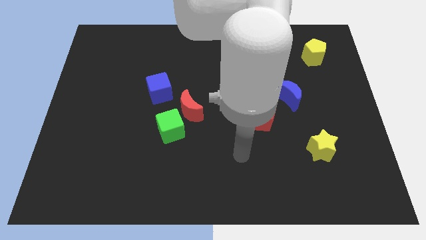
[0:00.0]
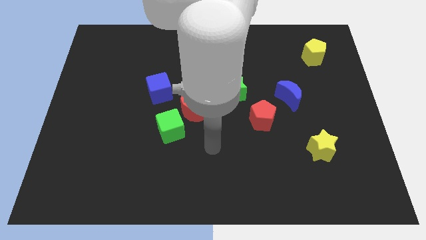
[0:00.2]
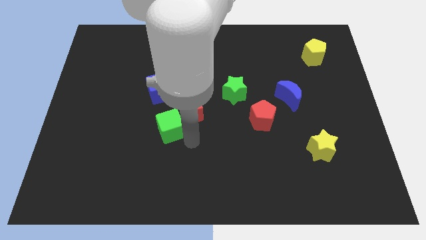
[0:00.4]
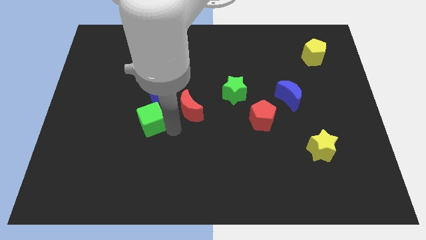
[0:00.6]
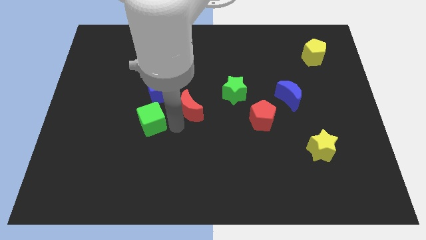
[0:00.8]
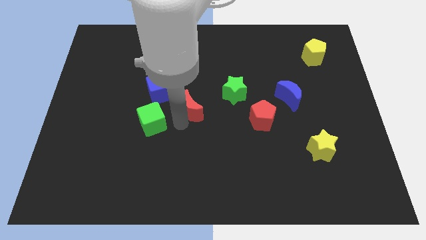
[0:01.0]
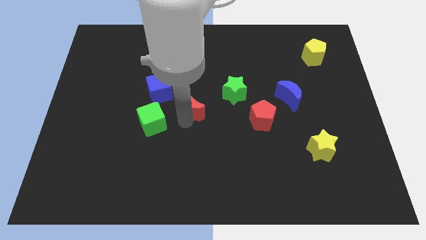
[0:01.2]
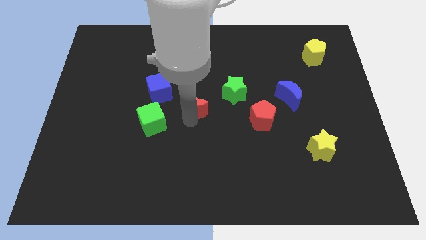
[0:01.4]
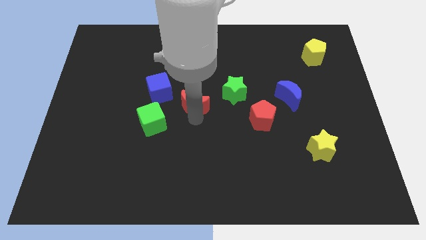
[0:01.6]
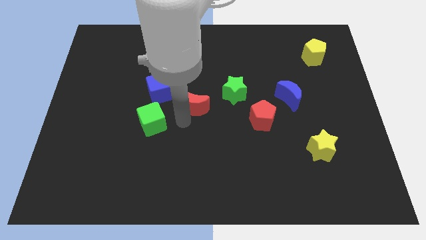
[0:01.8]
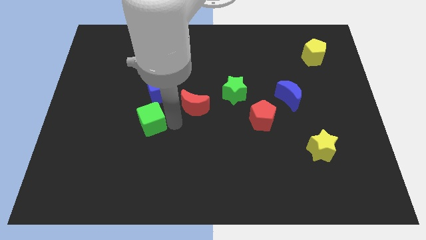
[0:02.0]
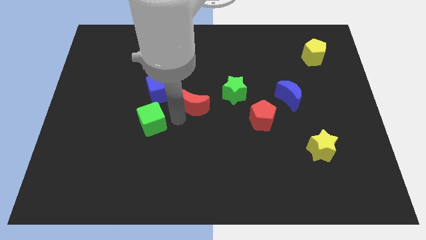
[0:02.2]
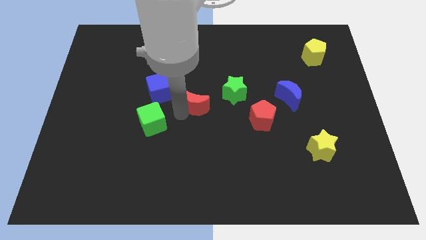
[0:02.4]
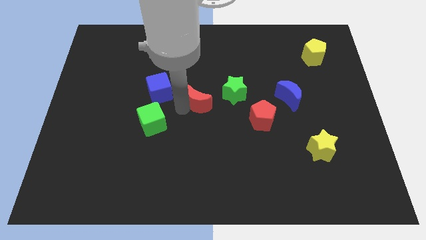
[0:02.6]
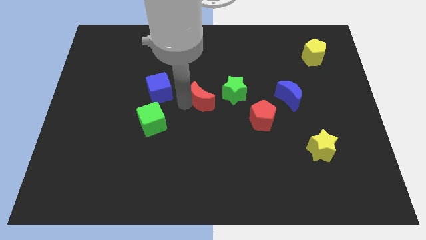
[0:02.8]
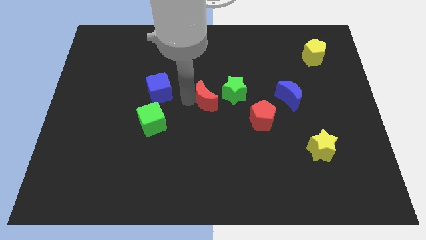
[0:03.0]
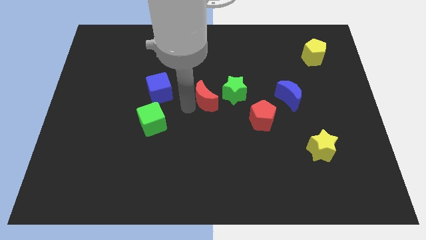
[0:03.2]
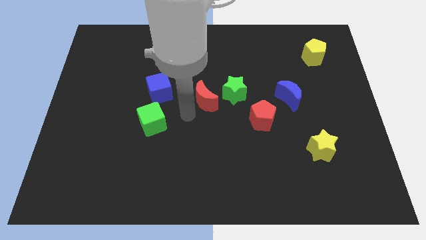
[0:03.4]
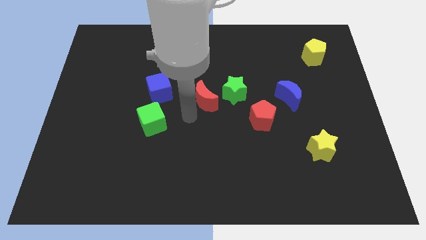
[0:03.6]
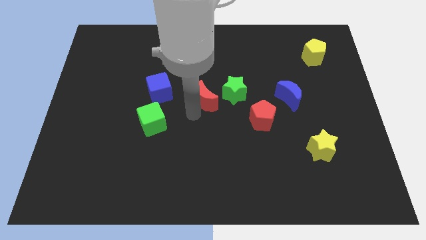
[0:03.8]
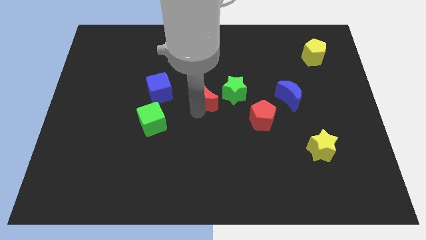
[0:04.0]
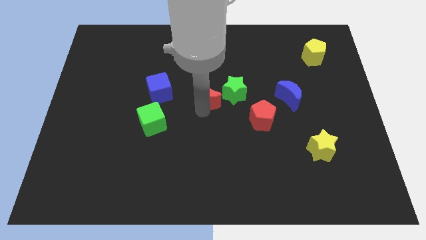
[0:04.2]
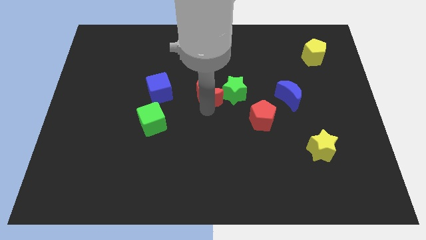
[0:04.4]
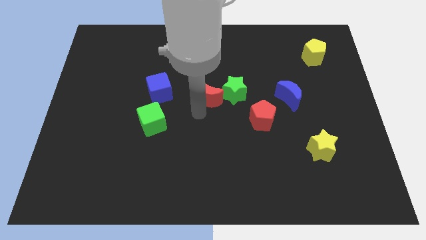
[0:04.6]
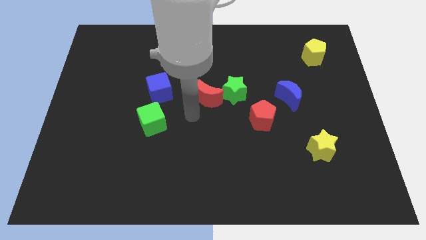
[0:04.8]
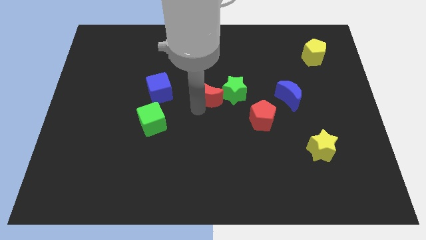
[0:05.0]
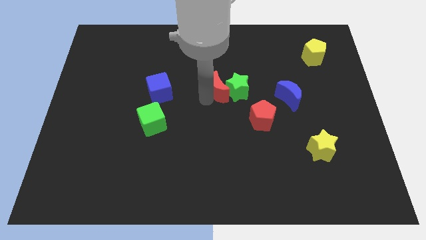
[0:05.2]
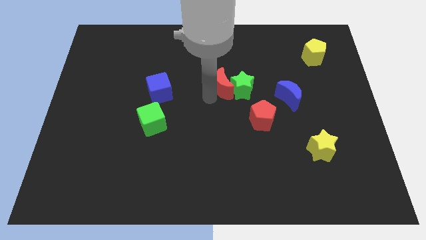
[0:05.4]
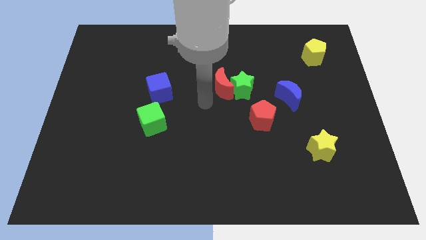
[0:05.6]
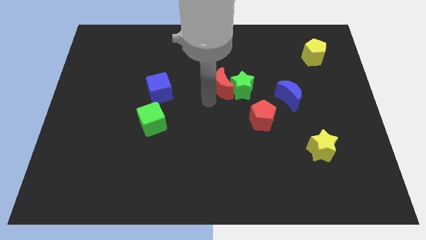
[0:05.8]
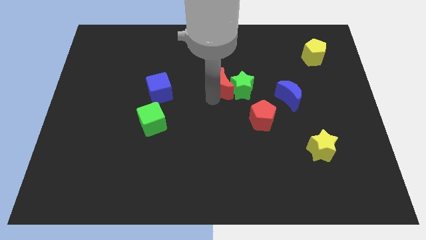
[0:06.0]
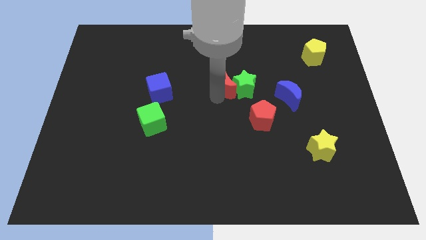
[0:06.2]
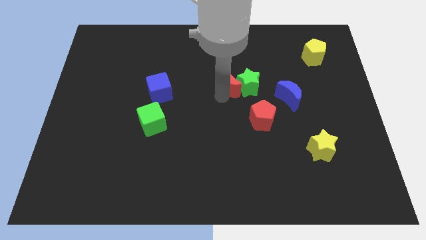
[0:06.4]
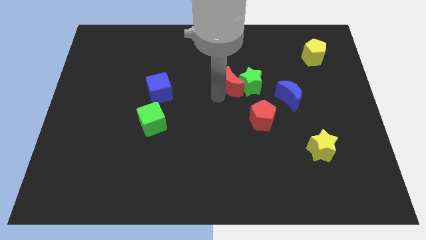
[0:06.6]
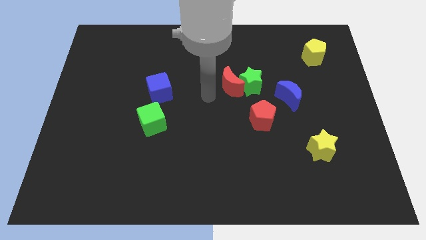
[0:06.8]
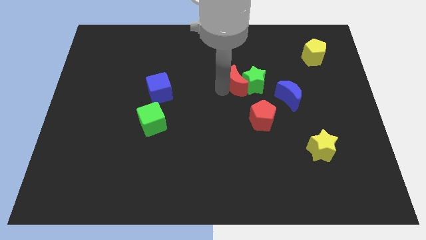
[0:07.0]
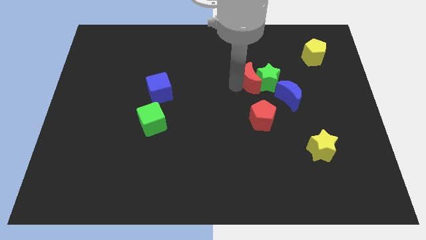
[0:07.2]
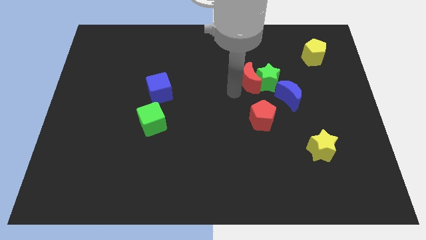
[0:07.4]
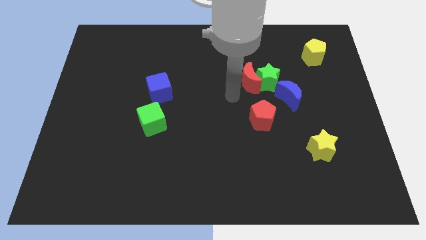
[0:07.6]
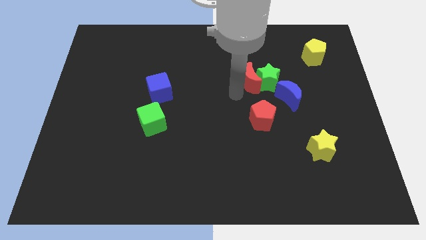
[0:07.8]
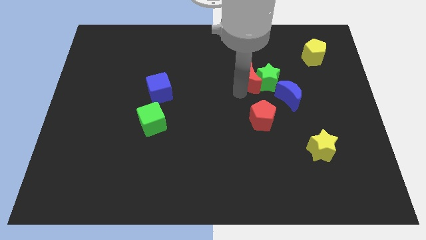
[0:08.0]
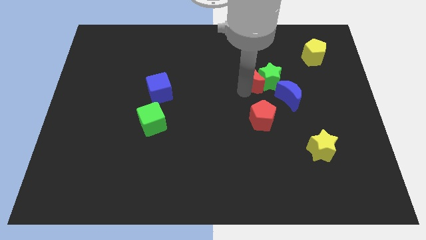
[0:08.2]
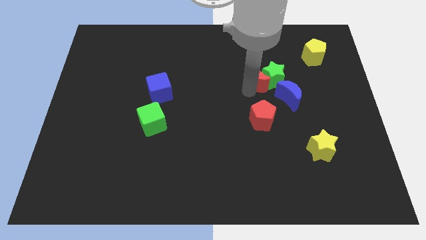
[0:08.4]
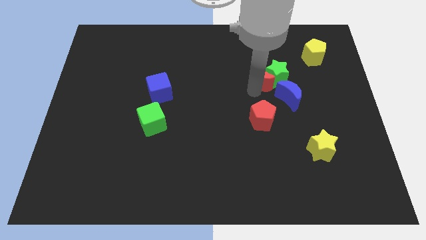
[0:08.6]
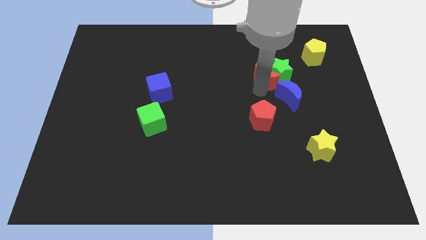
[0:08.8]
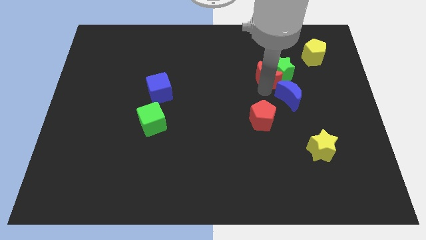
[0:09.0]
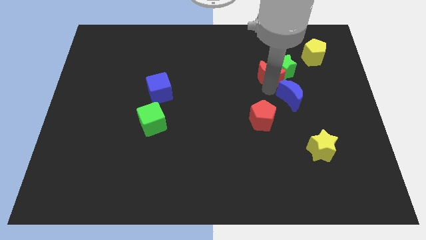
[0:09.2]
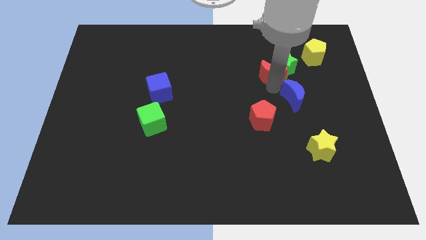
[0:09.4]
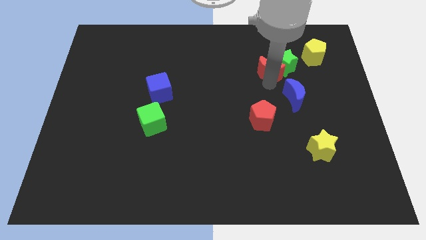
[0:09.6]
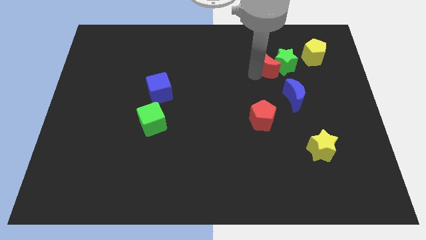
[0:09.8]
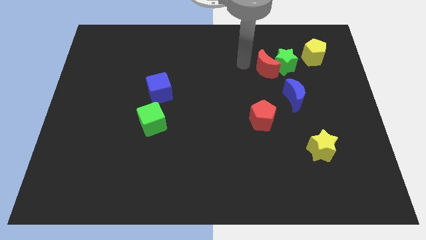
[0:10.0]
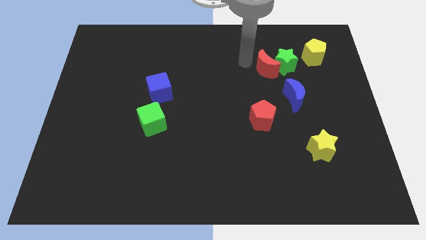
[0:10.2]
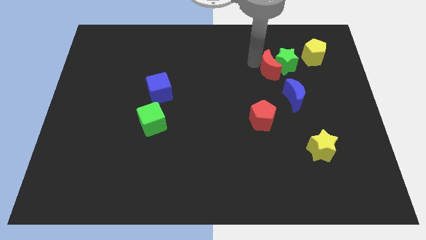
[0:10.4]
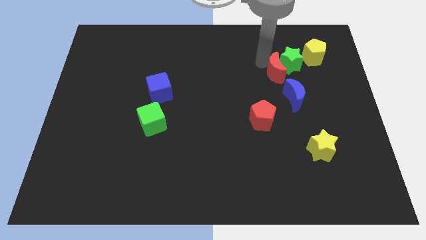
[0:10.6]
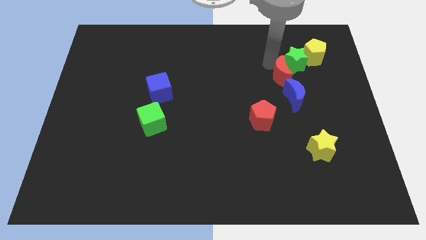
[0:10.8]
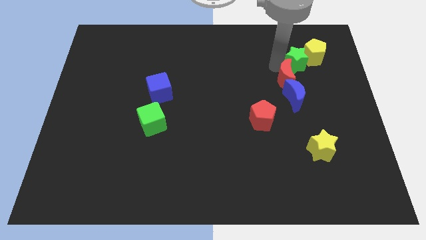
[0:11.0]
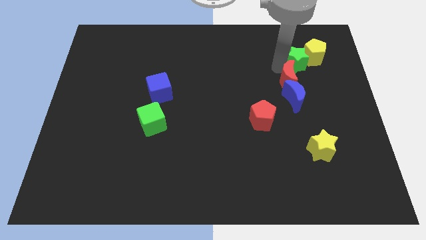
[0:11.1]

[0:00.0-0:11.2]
slide the red moon to the top right side of the blue moon

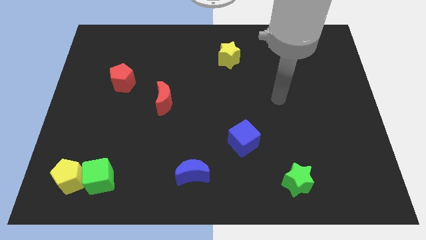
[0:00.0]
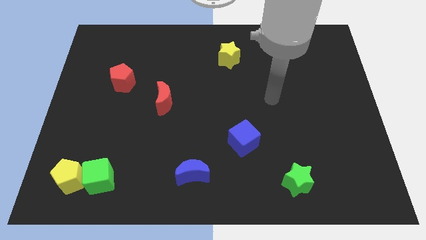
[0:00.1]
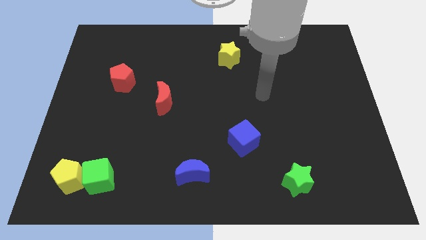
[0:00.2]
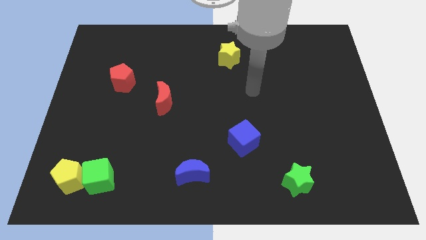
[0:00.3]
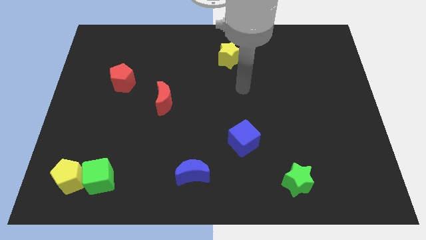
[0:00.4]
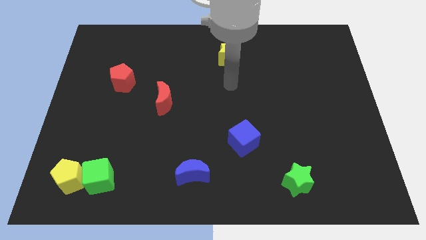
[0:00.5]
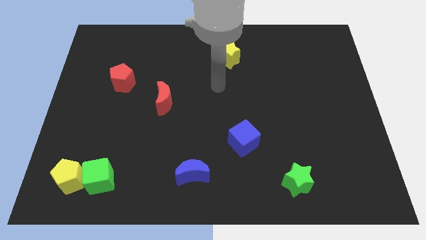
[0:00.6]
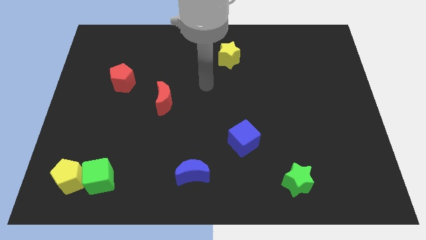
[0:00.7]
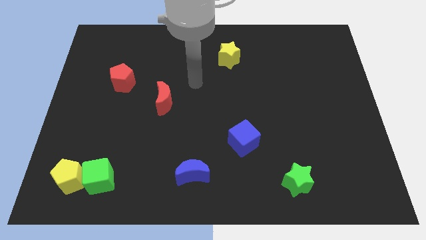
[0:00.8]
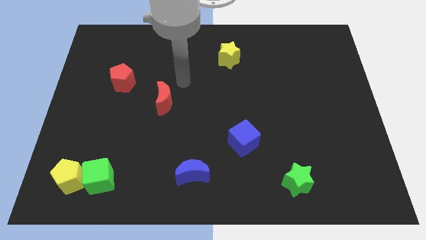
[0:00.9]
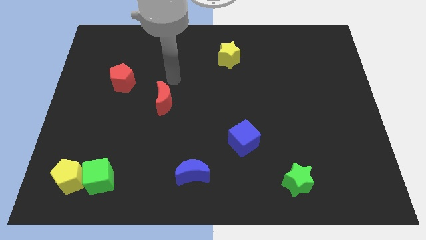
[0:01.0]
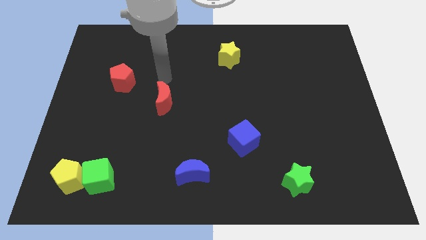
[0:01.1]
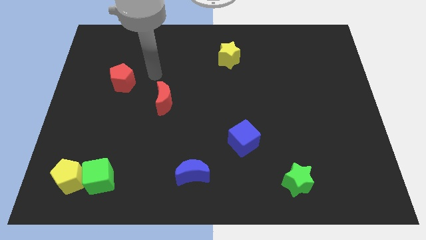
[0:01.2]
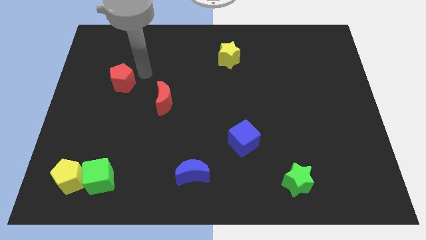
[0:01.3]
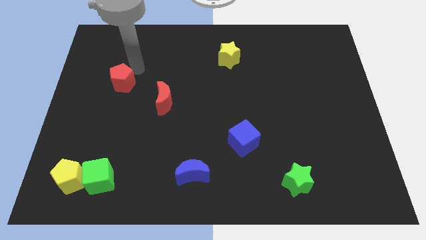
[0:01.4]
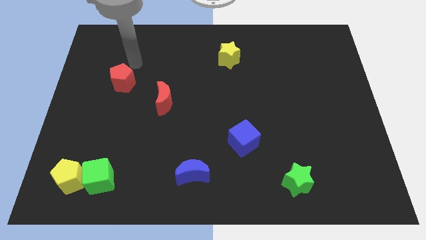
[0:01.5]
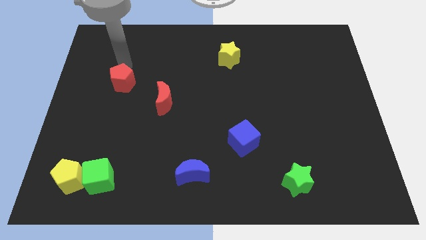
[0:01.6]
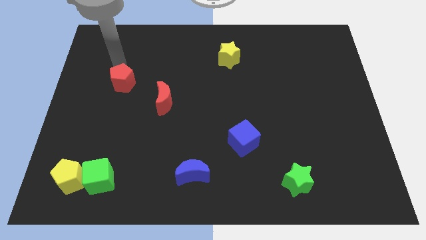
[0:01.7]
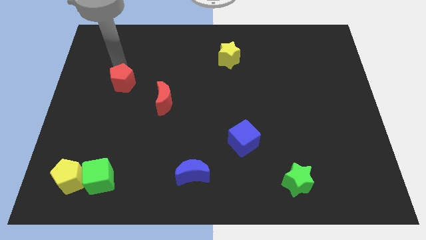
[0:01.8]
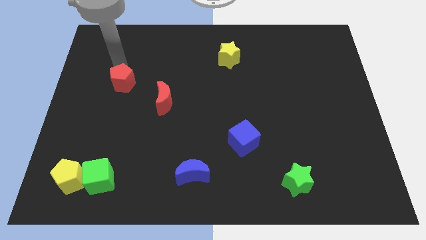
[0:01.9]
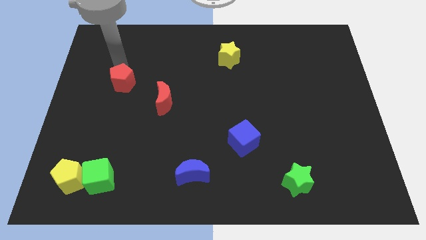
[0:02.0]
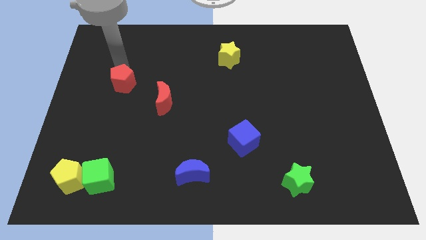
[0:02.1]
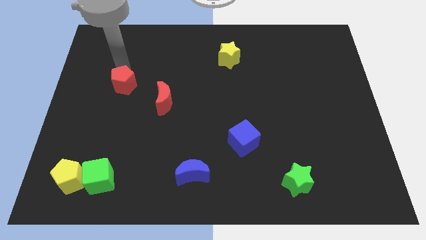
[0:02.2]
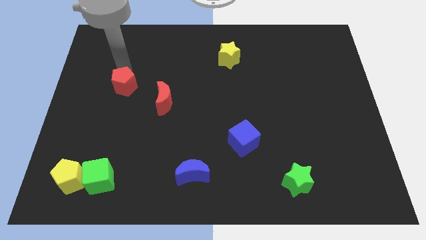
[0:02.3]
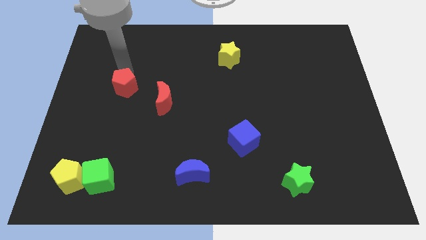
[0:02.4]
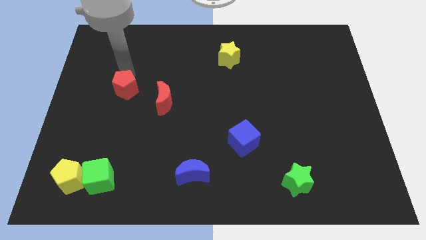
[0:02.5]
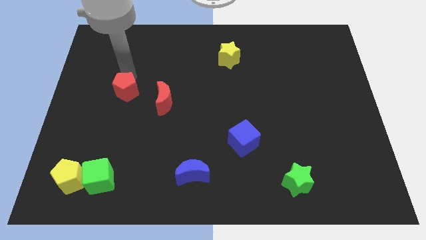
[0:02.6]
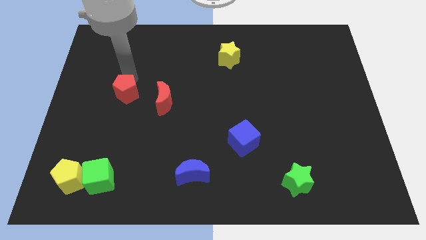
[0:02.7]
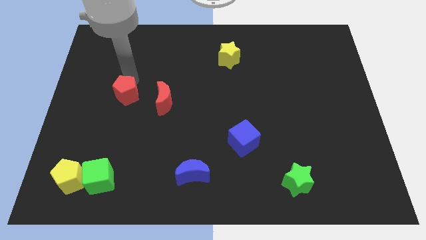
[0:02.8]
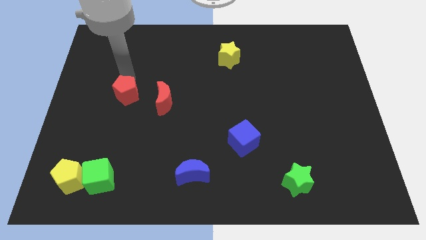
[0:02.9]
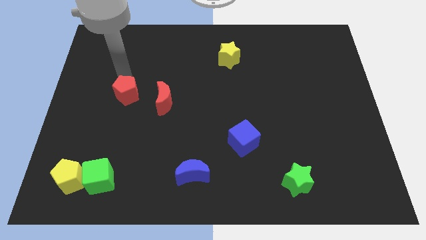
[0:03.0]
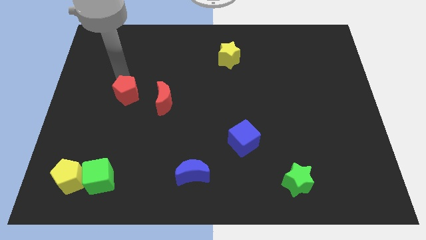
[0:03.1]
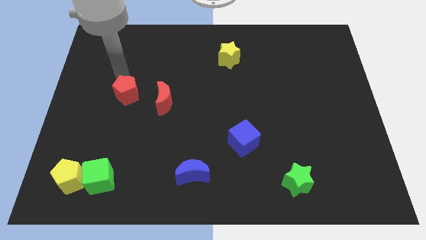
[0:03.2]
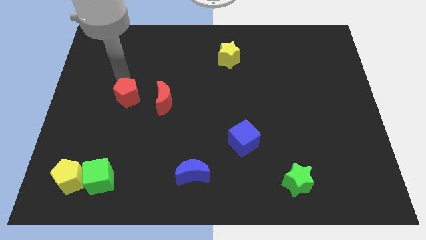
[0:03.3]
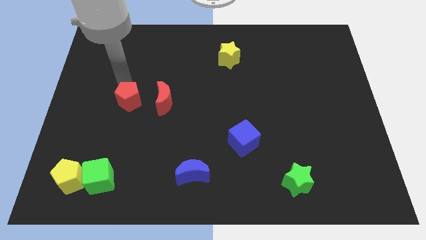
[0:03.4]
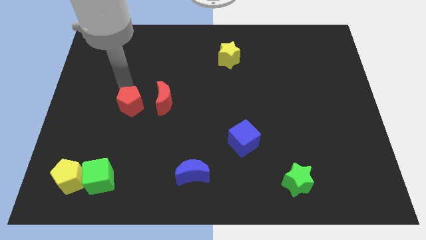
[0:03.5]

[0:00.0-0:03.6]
push the red pentagon diagonally down and to the left of the red moon
